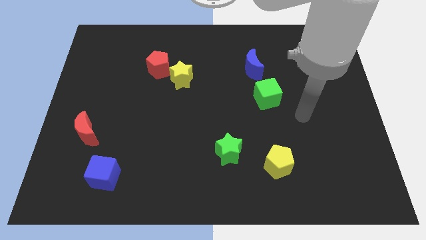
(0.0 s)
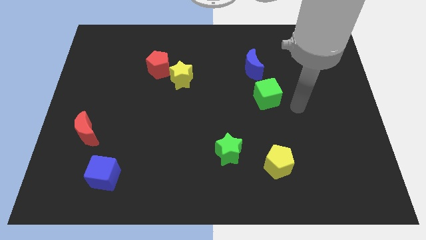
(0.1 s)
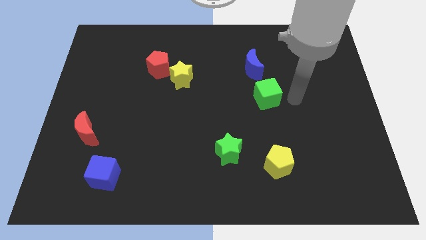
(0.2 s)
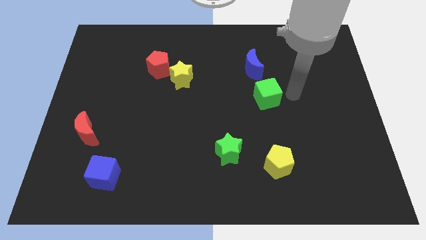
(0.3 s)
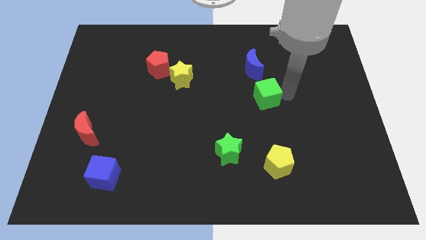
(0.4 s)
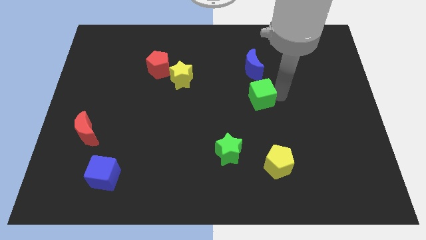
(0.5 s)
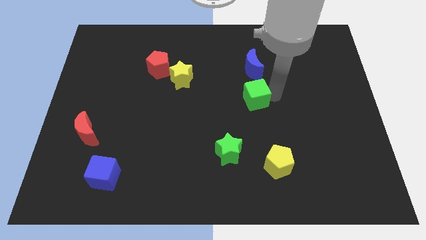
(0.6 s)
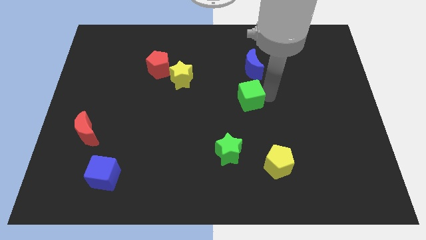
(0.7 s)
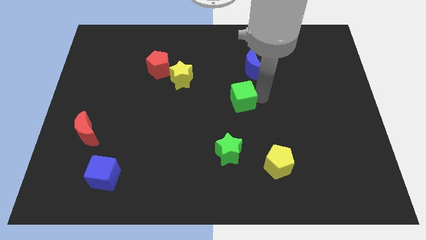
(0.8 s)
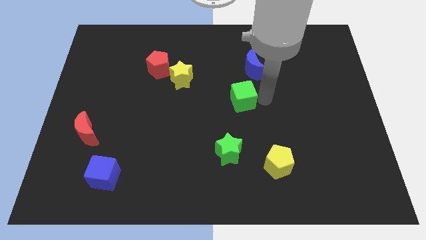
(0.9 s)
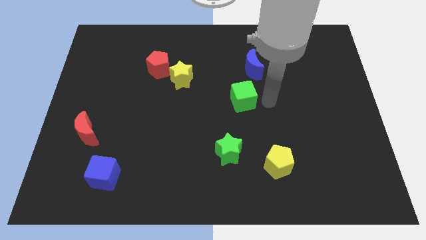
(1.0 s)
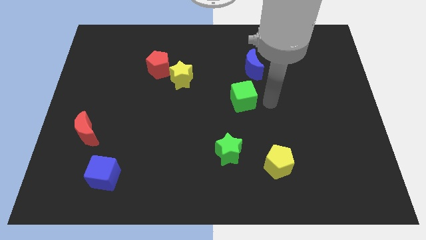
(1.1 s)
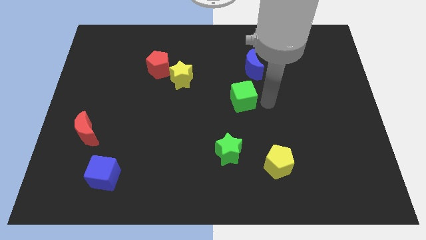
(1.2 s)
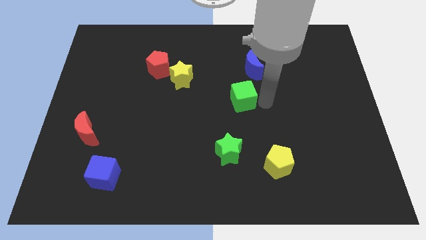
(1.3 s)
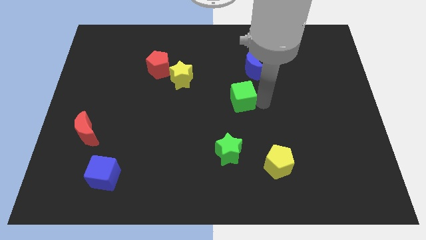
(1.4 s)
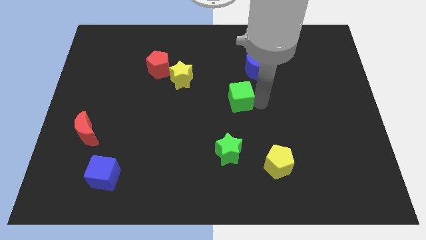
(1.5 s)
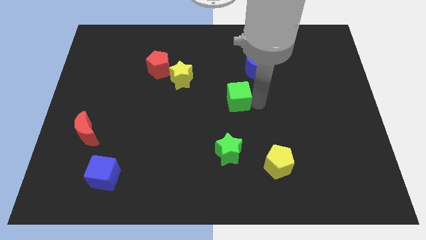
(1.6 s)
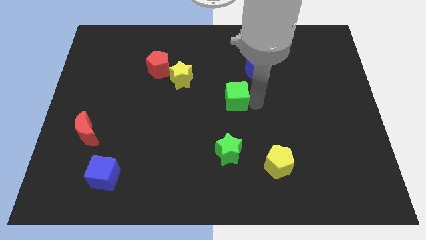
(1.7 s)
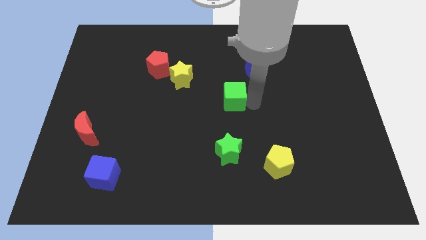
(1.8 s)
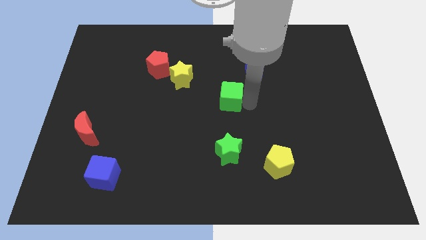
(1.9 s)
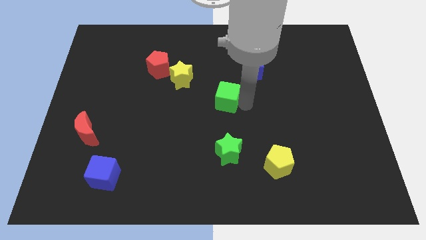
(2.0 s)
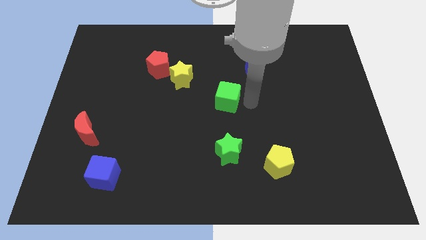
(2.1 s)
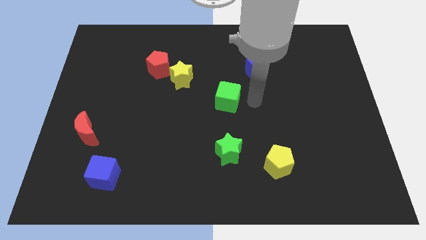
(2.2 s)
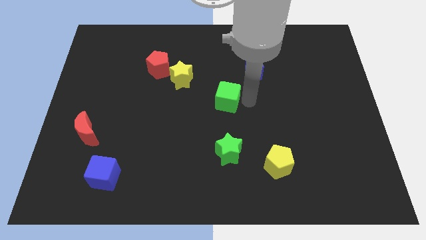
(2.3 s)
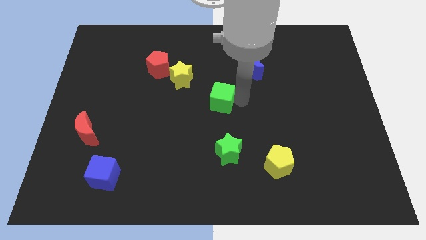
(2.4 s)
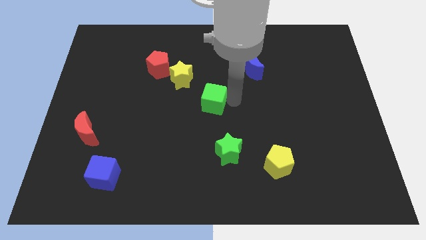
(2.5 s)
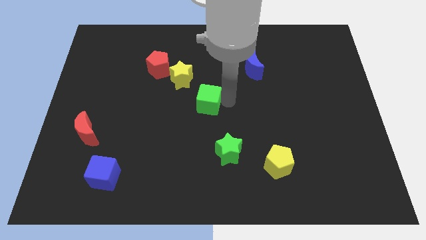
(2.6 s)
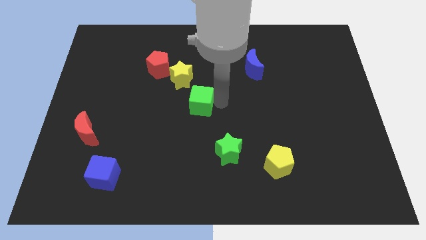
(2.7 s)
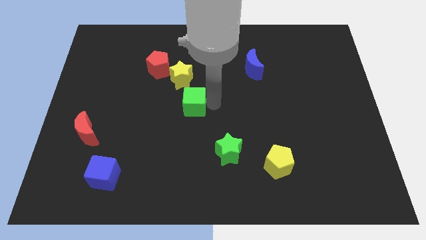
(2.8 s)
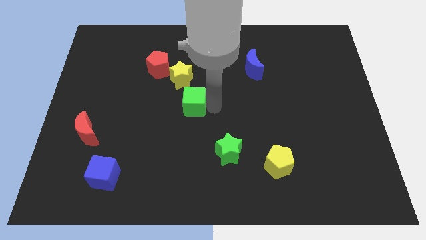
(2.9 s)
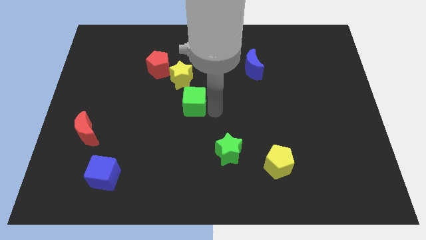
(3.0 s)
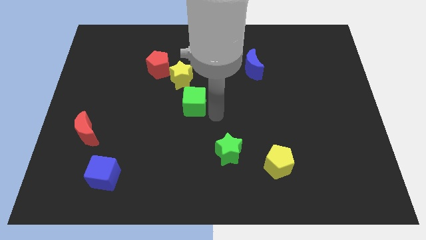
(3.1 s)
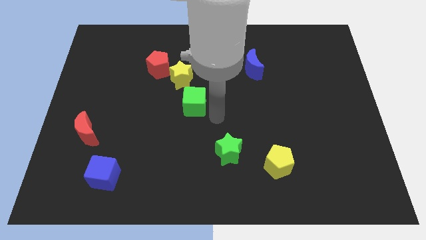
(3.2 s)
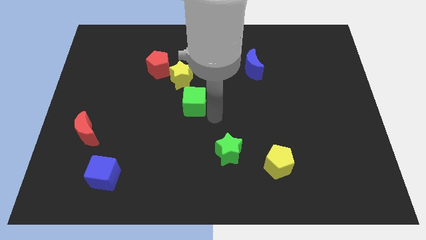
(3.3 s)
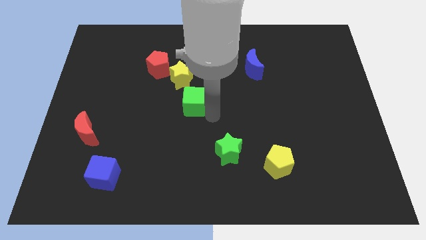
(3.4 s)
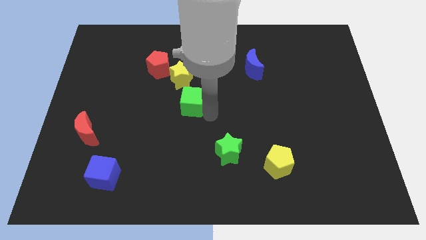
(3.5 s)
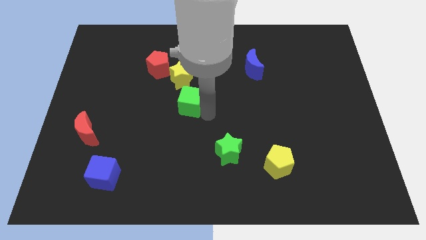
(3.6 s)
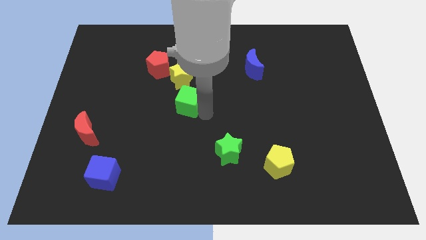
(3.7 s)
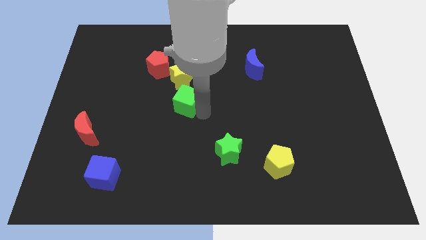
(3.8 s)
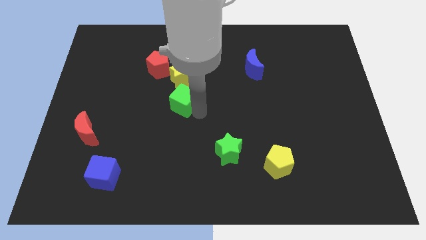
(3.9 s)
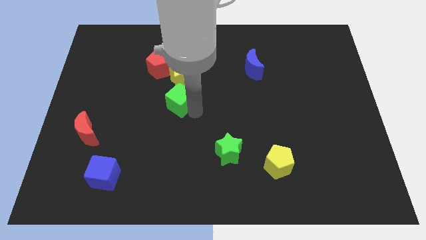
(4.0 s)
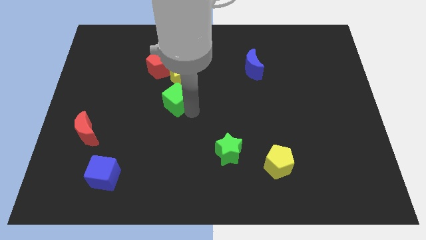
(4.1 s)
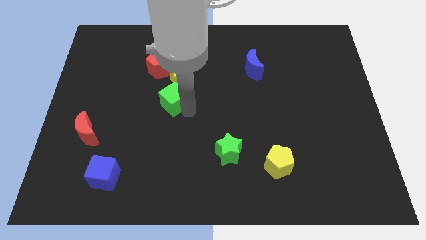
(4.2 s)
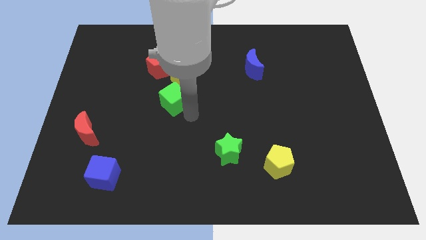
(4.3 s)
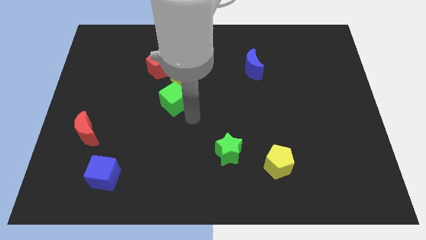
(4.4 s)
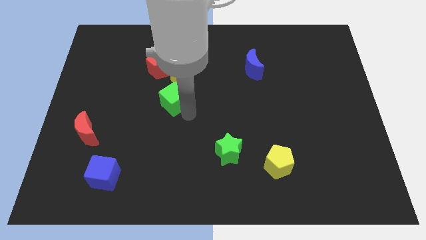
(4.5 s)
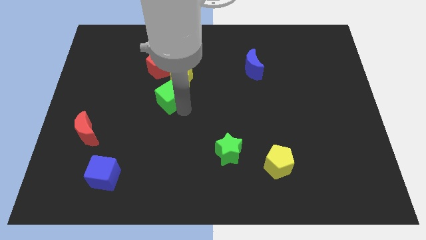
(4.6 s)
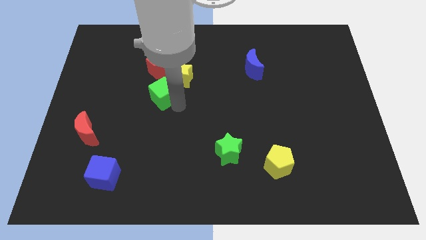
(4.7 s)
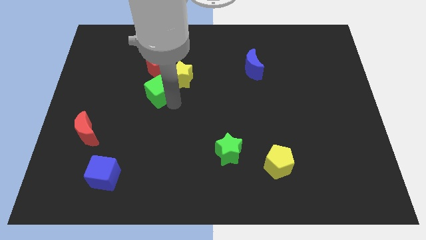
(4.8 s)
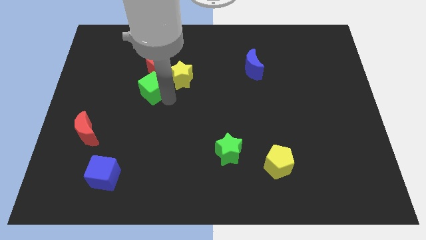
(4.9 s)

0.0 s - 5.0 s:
move the green cube to the bottom left of the red pentagon

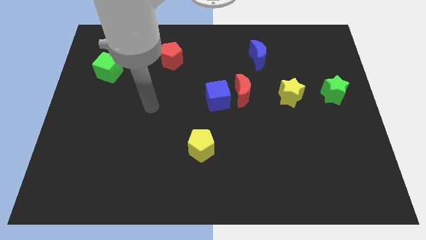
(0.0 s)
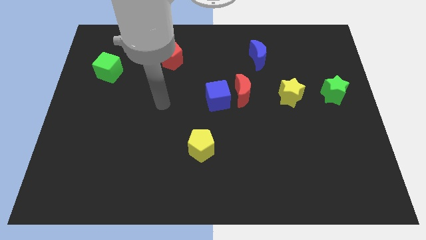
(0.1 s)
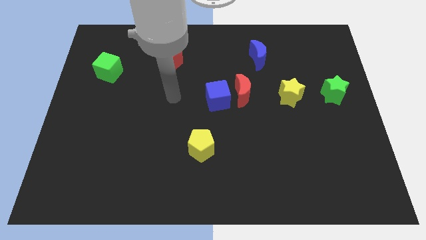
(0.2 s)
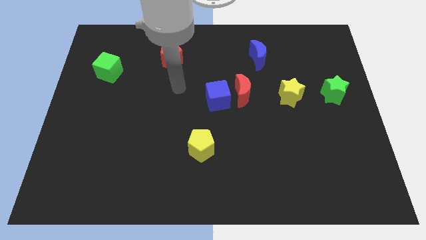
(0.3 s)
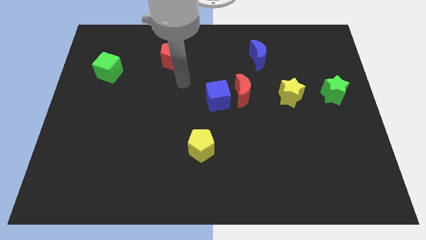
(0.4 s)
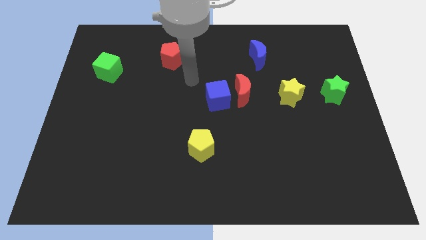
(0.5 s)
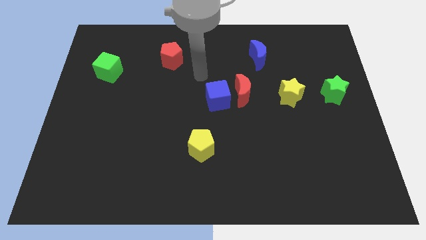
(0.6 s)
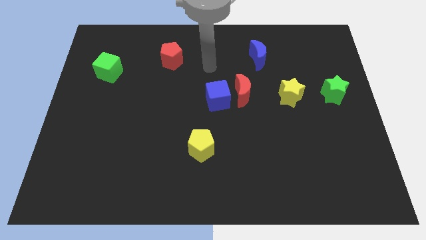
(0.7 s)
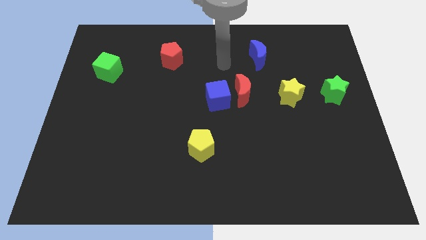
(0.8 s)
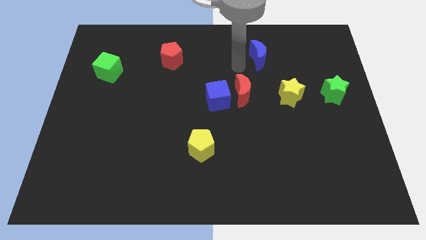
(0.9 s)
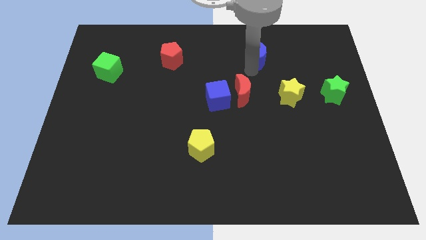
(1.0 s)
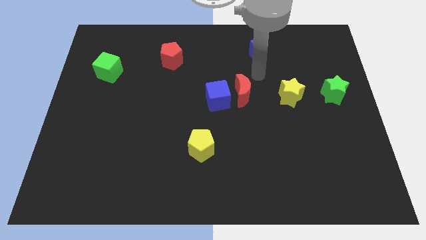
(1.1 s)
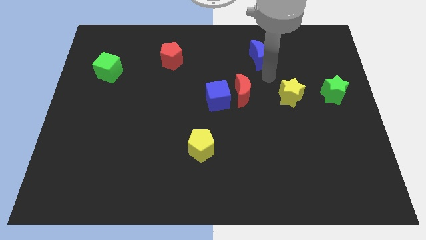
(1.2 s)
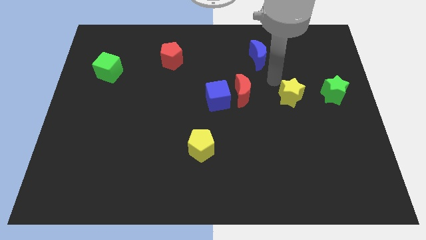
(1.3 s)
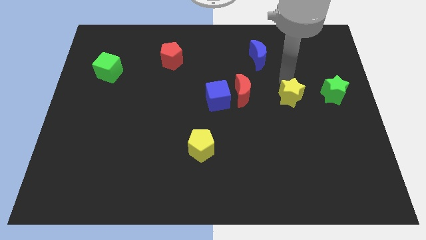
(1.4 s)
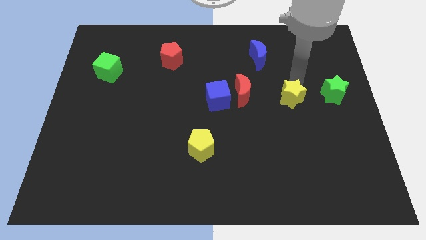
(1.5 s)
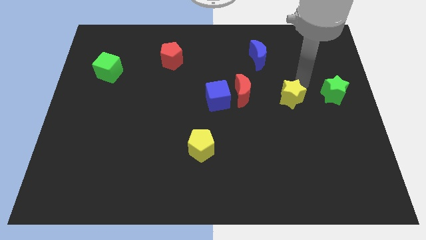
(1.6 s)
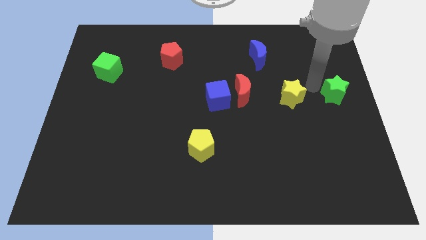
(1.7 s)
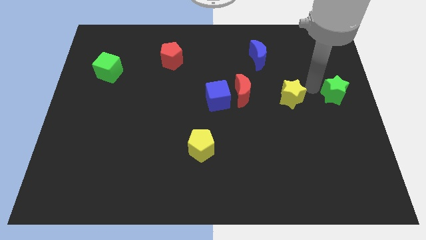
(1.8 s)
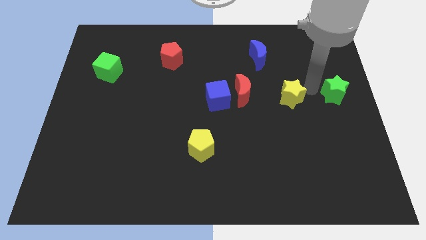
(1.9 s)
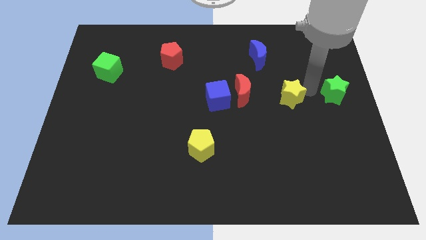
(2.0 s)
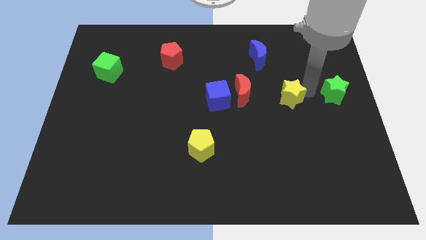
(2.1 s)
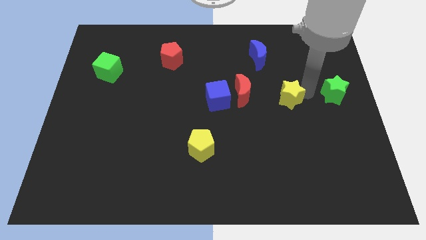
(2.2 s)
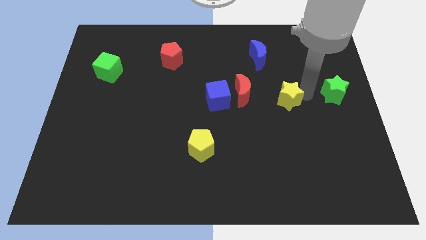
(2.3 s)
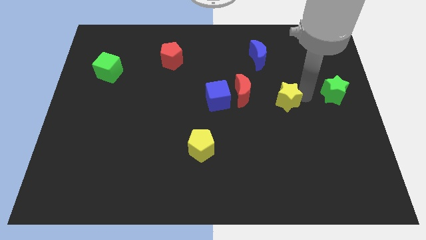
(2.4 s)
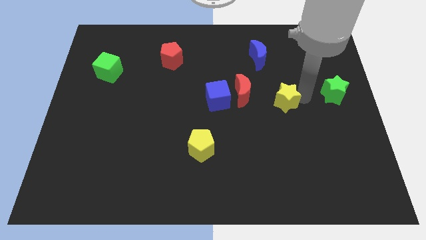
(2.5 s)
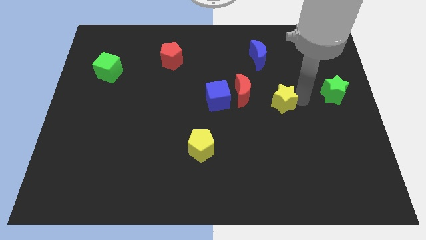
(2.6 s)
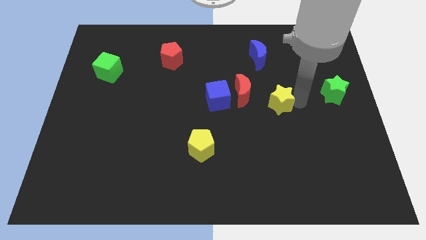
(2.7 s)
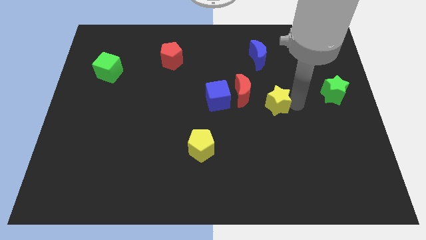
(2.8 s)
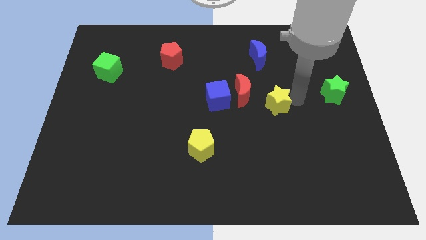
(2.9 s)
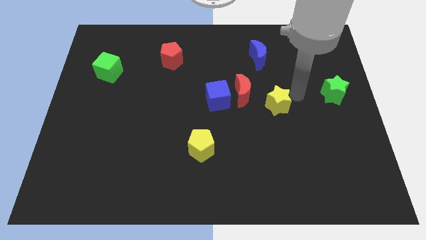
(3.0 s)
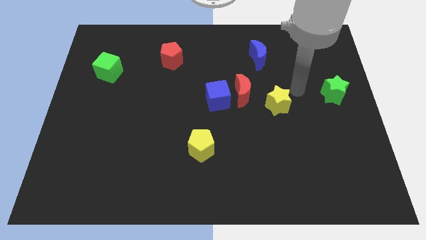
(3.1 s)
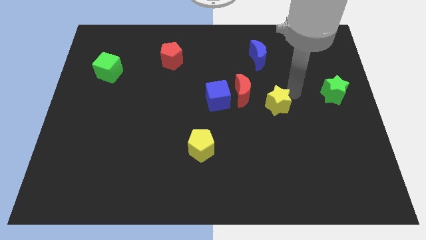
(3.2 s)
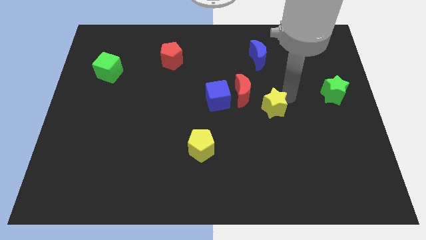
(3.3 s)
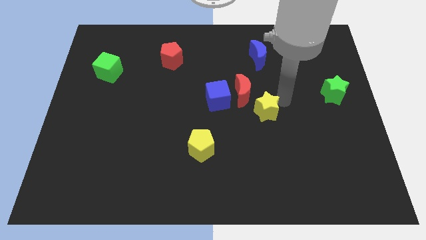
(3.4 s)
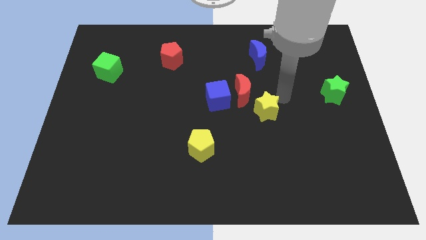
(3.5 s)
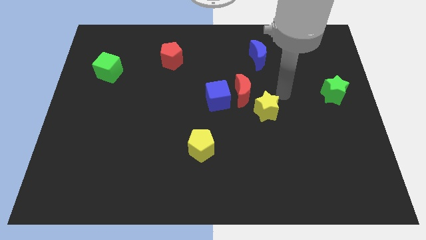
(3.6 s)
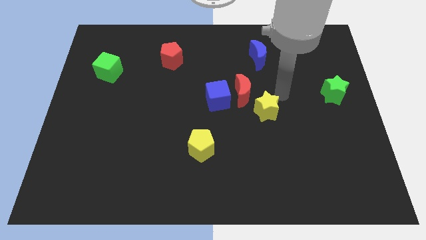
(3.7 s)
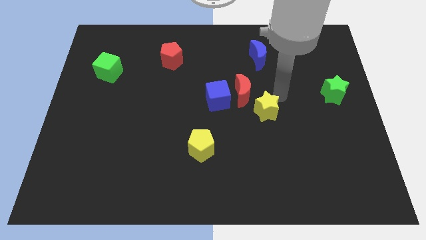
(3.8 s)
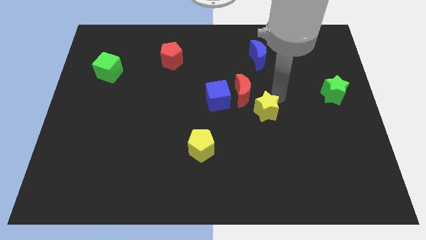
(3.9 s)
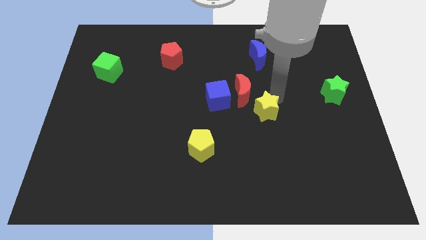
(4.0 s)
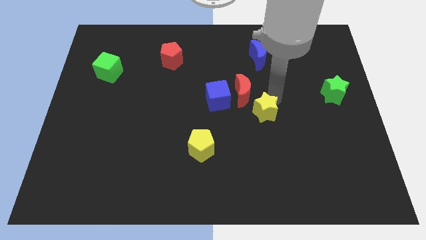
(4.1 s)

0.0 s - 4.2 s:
push the yellow star below the red moon
